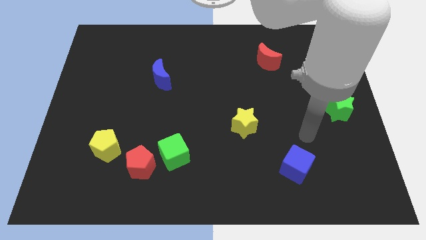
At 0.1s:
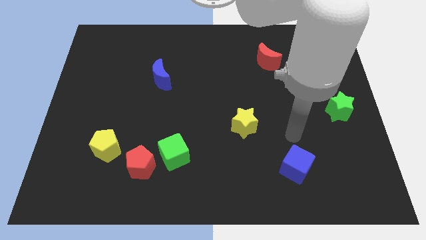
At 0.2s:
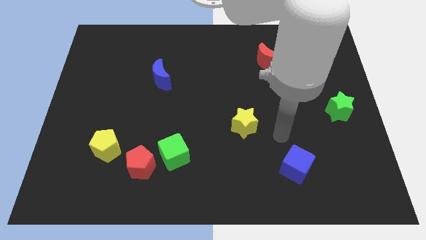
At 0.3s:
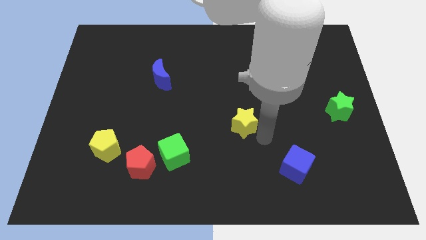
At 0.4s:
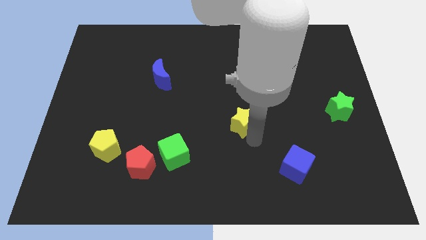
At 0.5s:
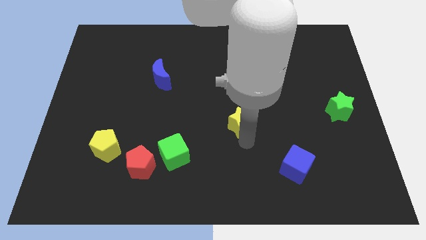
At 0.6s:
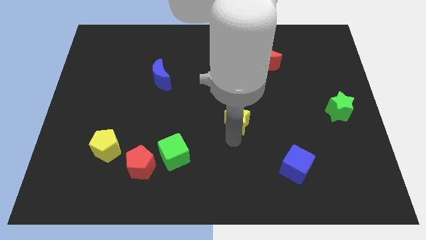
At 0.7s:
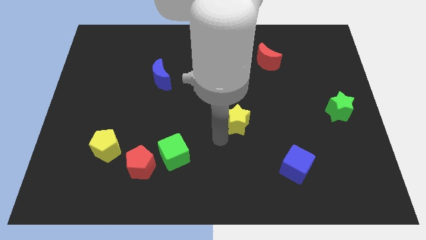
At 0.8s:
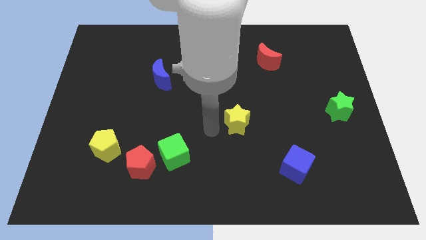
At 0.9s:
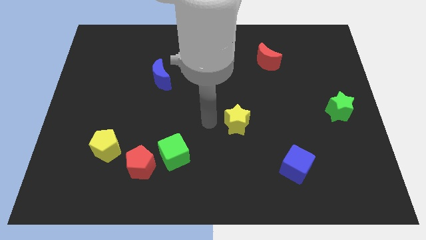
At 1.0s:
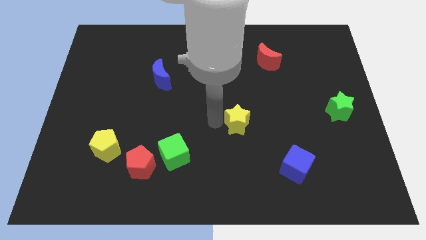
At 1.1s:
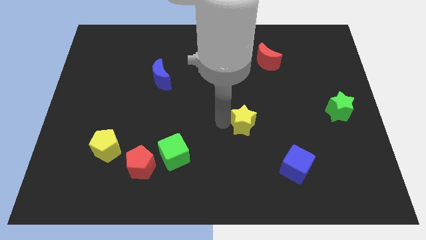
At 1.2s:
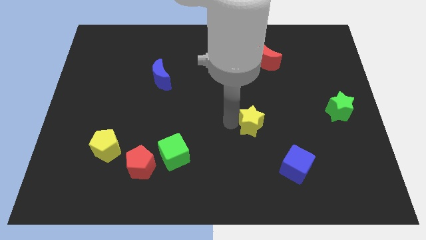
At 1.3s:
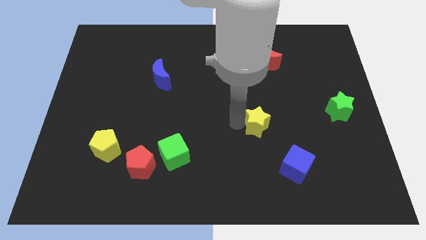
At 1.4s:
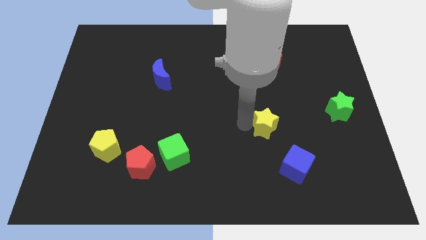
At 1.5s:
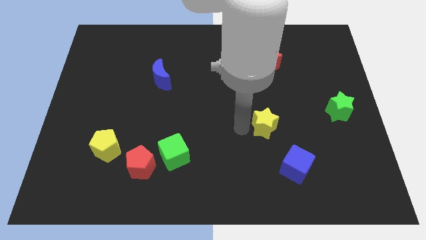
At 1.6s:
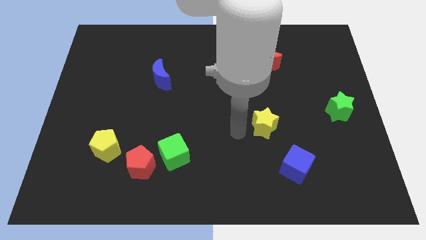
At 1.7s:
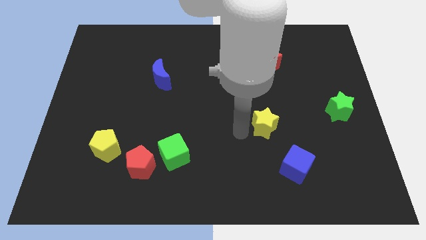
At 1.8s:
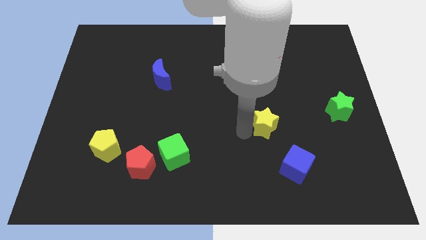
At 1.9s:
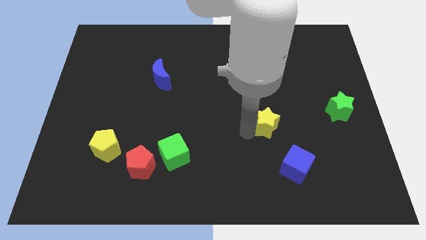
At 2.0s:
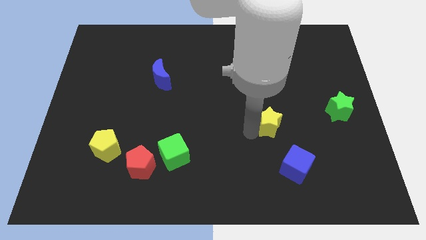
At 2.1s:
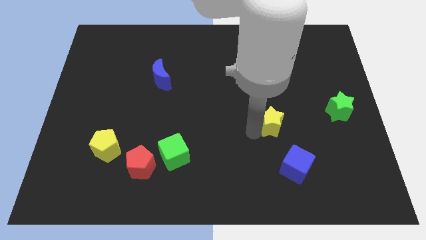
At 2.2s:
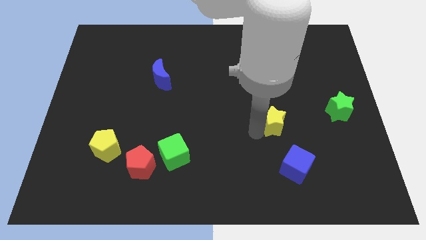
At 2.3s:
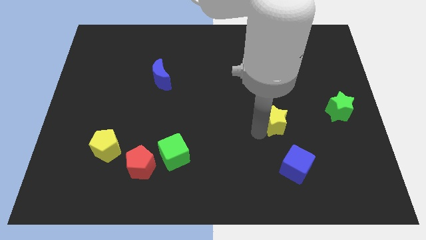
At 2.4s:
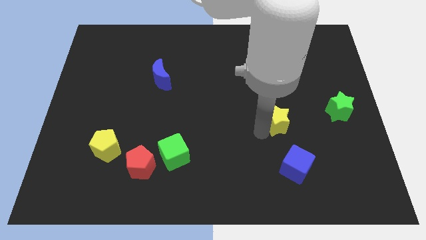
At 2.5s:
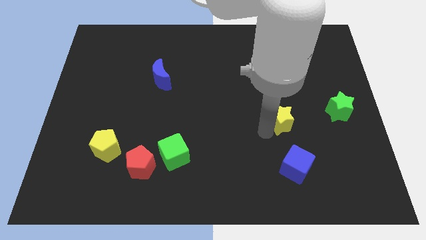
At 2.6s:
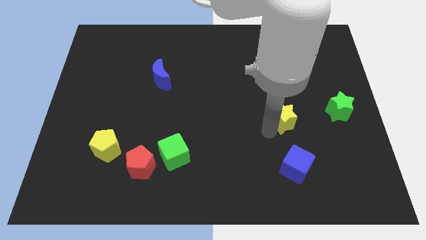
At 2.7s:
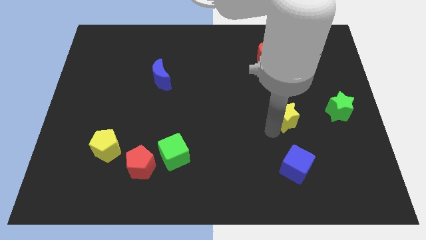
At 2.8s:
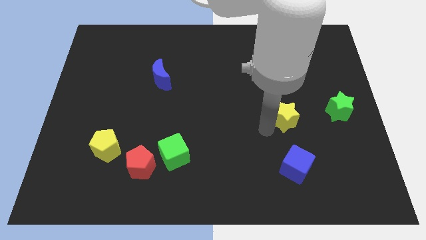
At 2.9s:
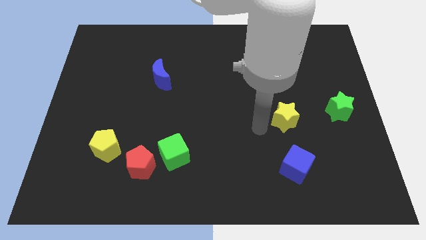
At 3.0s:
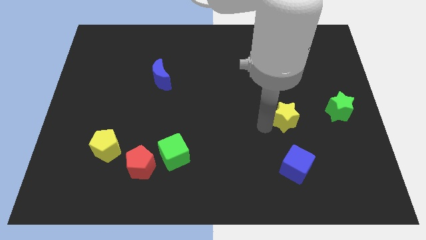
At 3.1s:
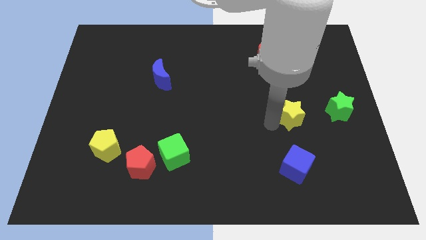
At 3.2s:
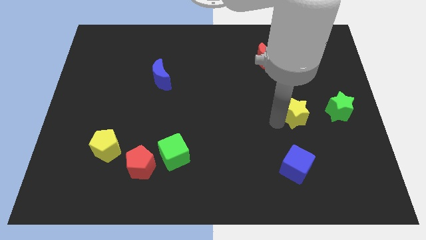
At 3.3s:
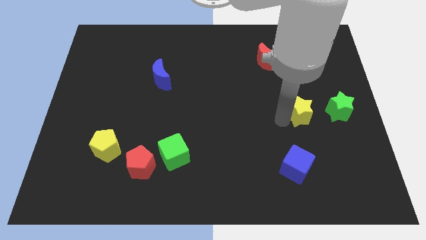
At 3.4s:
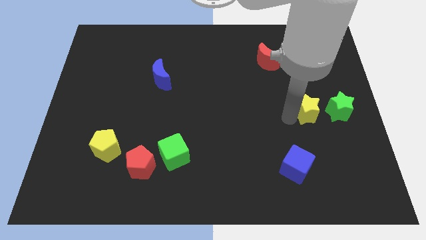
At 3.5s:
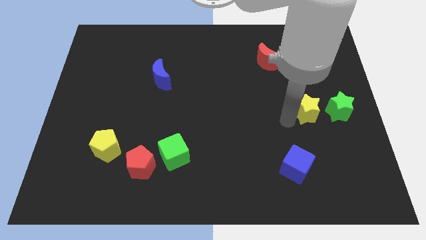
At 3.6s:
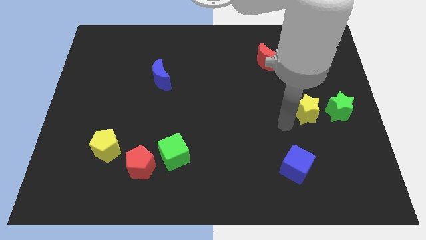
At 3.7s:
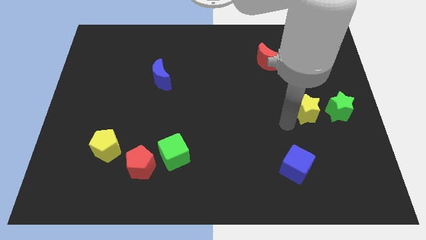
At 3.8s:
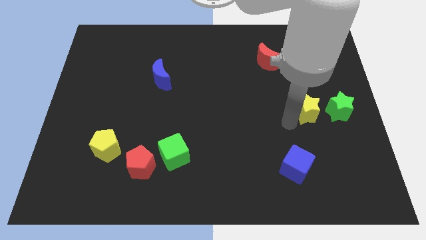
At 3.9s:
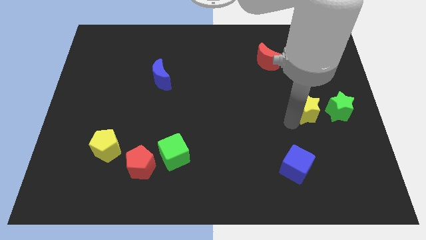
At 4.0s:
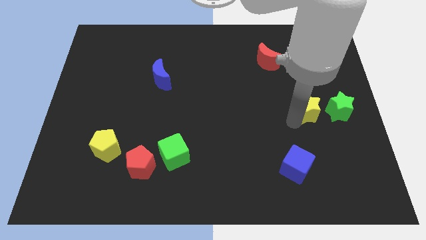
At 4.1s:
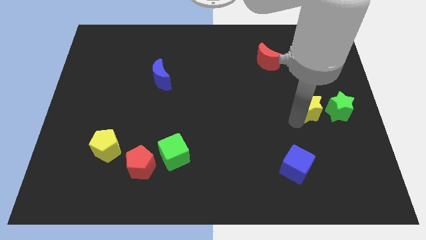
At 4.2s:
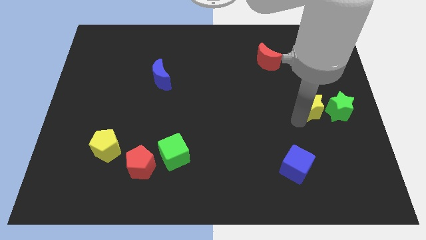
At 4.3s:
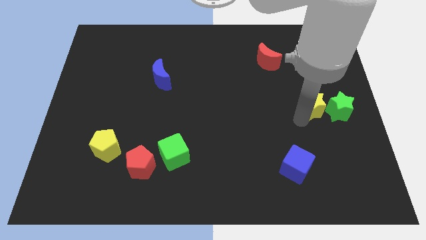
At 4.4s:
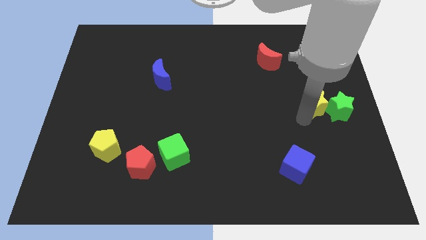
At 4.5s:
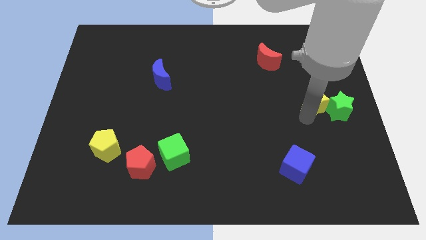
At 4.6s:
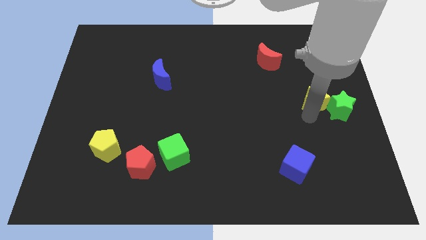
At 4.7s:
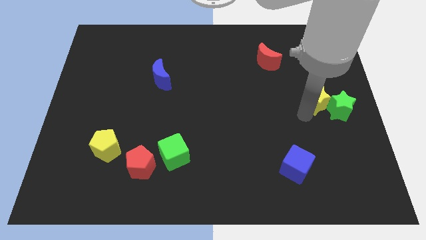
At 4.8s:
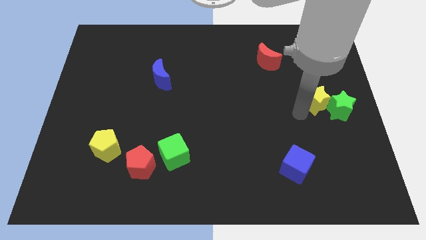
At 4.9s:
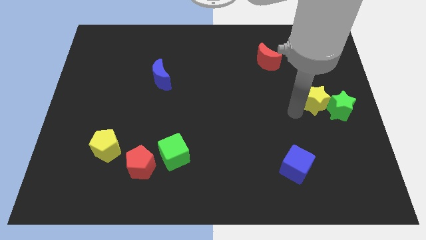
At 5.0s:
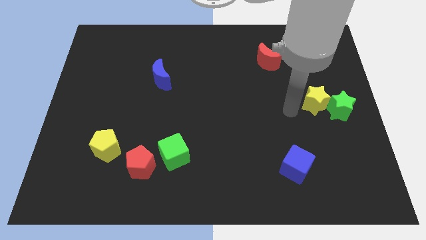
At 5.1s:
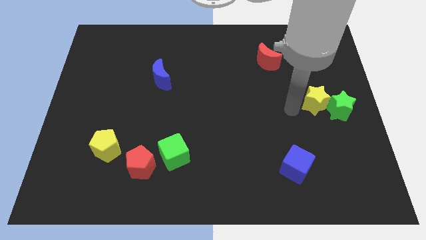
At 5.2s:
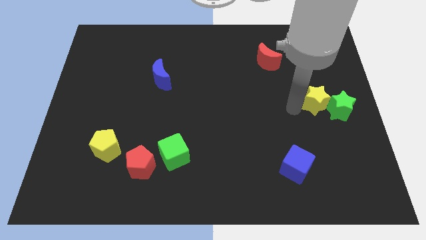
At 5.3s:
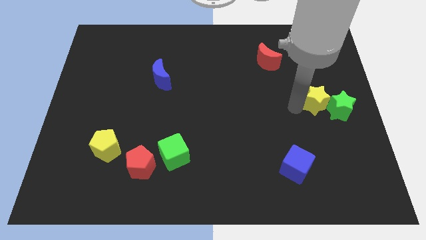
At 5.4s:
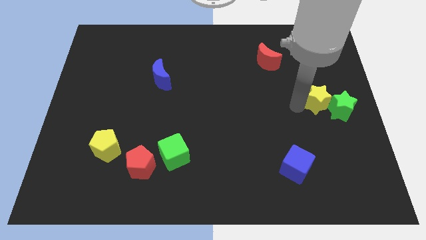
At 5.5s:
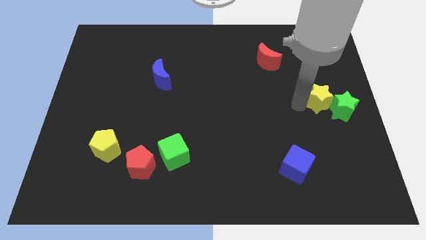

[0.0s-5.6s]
push the yellow star to the right side
